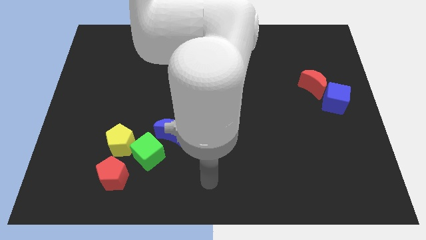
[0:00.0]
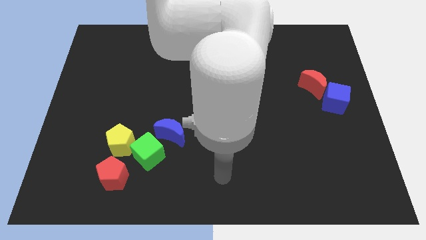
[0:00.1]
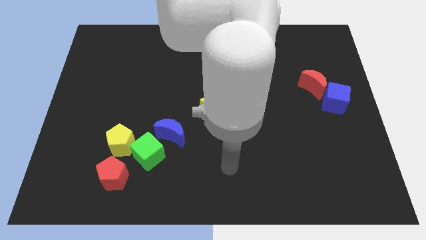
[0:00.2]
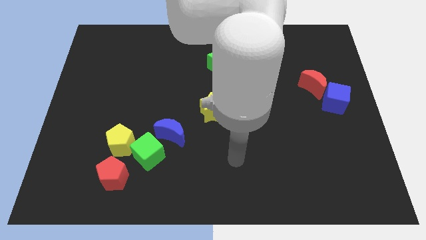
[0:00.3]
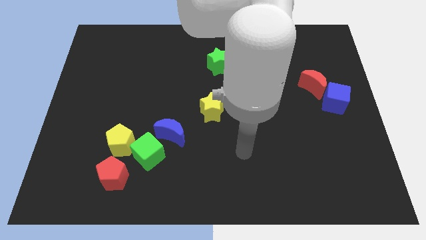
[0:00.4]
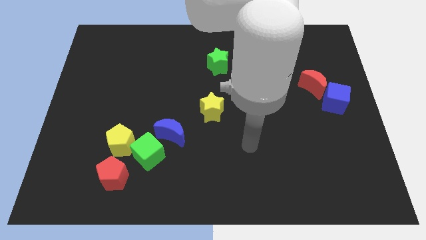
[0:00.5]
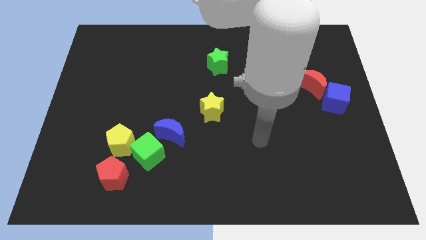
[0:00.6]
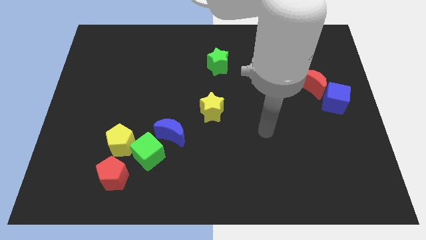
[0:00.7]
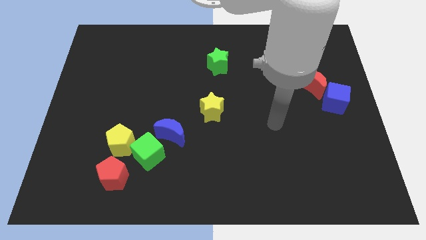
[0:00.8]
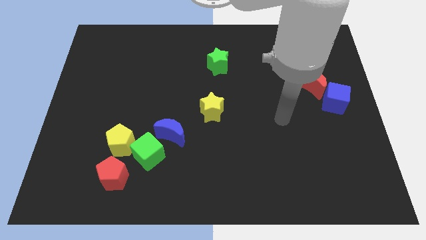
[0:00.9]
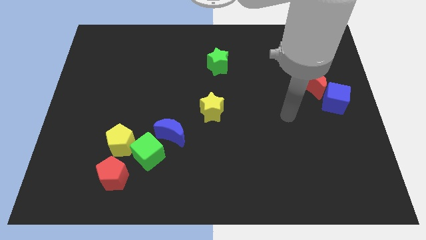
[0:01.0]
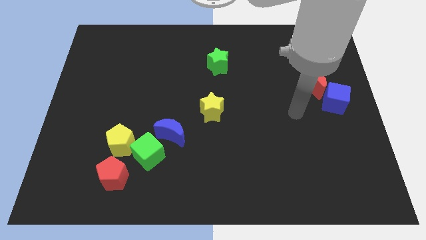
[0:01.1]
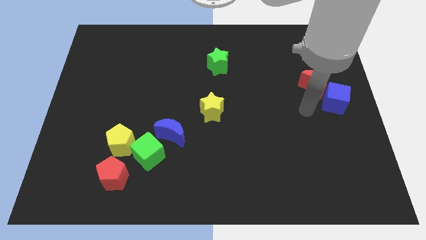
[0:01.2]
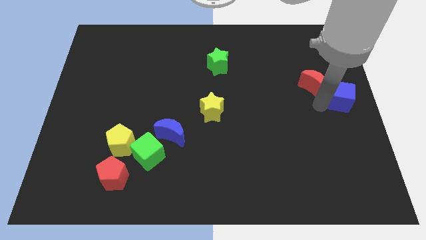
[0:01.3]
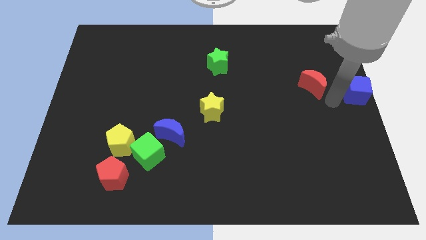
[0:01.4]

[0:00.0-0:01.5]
pull the red moon apart from the blue cube

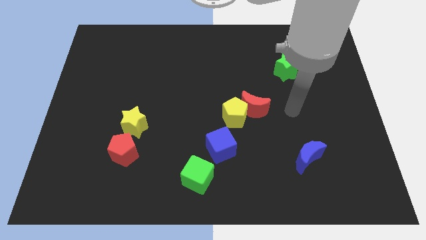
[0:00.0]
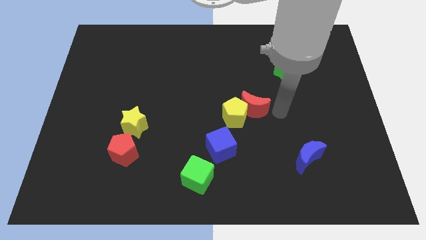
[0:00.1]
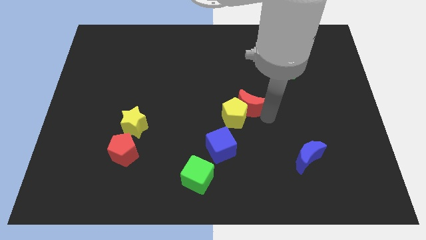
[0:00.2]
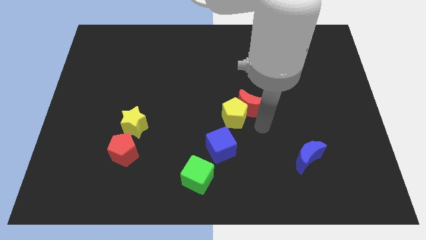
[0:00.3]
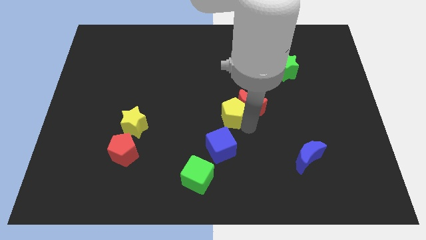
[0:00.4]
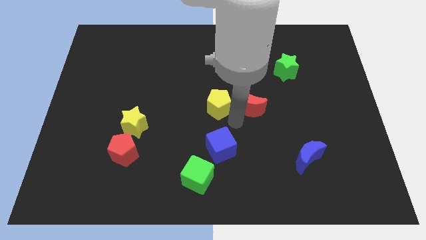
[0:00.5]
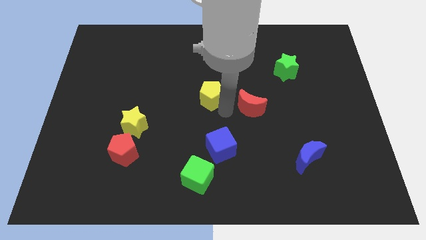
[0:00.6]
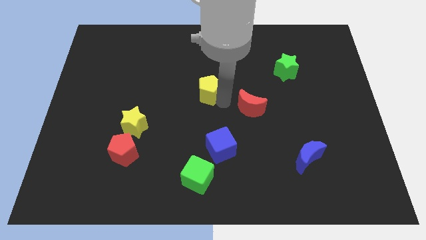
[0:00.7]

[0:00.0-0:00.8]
separate the red moon from the yellow pentagon

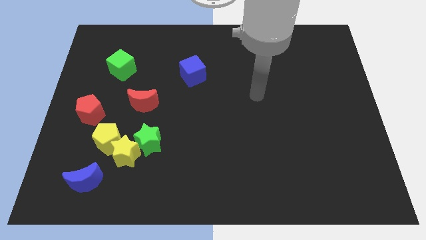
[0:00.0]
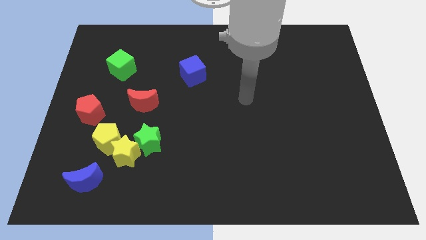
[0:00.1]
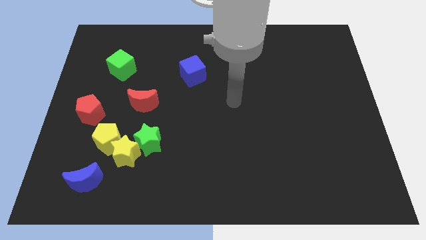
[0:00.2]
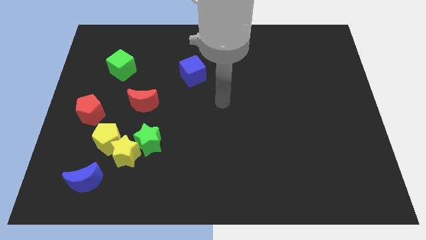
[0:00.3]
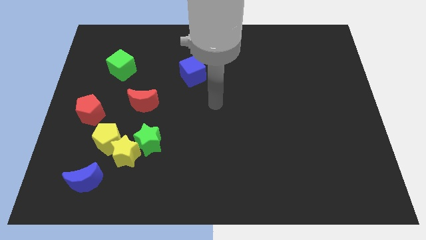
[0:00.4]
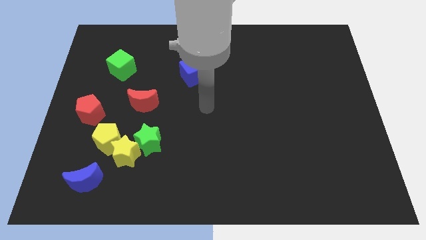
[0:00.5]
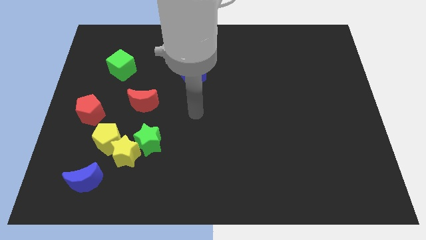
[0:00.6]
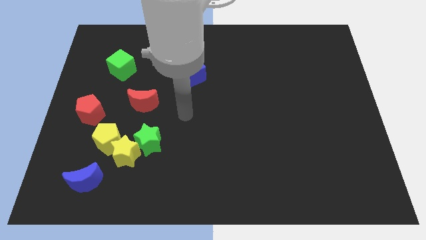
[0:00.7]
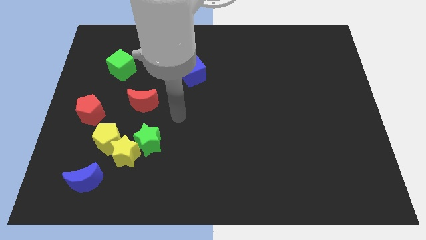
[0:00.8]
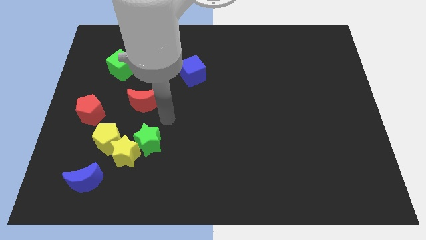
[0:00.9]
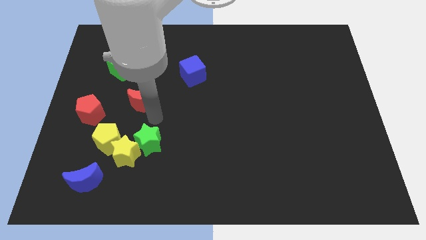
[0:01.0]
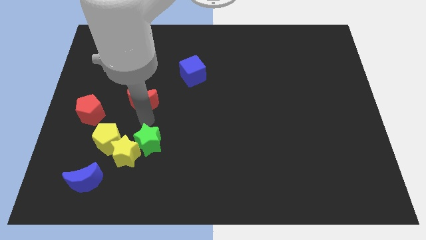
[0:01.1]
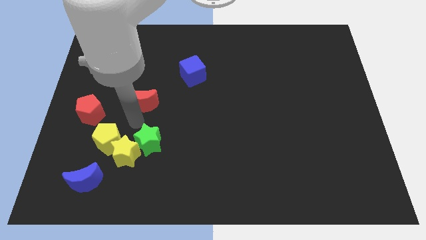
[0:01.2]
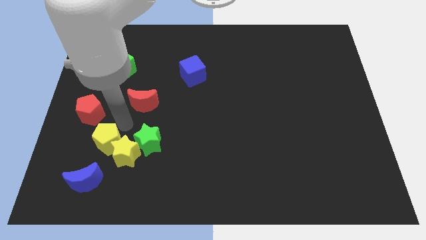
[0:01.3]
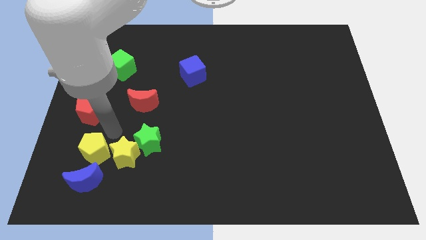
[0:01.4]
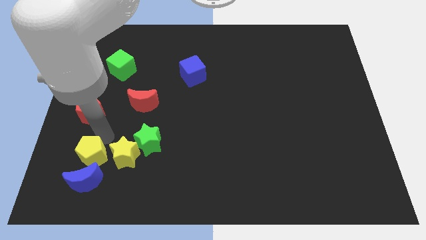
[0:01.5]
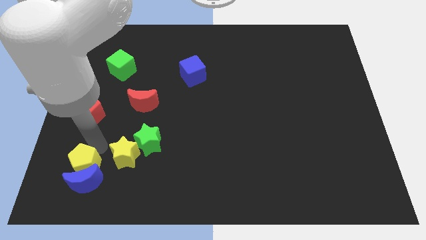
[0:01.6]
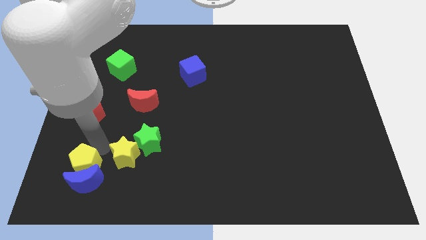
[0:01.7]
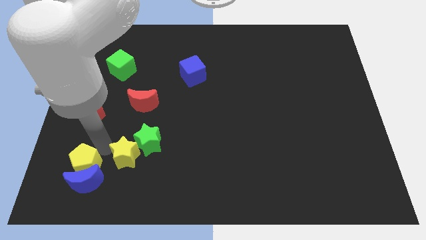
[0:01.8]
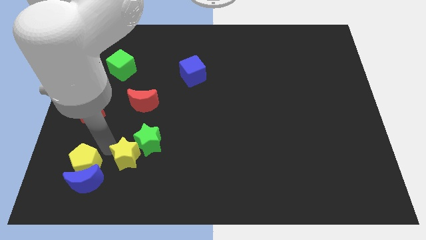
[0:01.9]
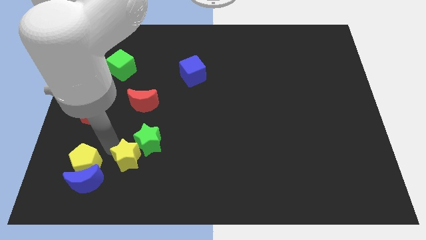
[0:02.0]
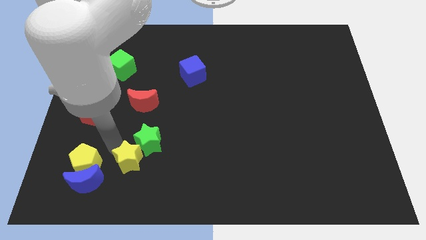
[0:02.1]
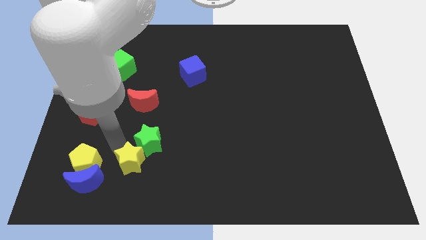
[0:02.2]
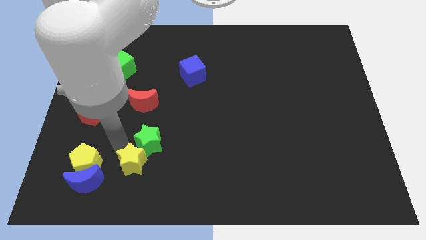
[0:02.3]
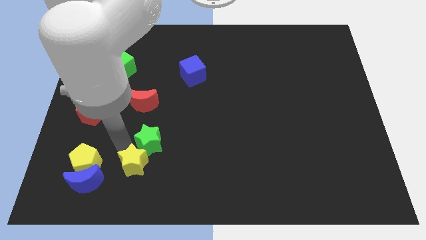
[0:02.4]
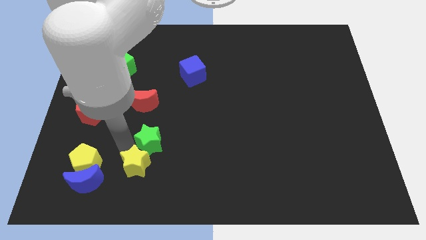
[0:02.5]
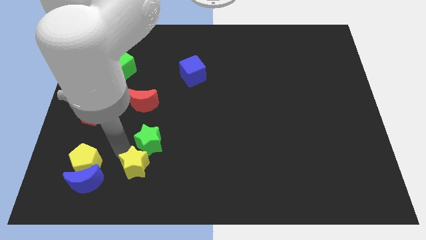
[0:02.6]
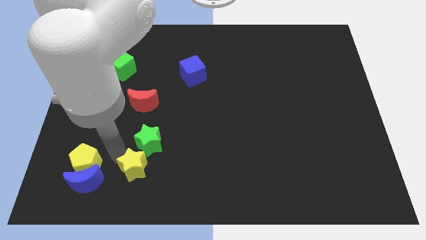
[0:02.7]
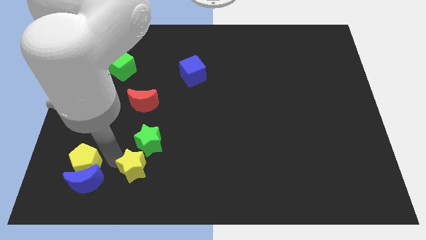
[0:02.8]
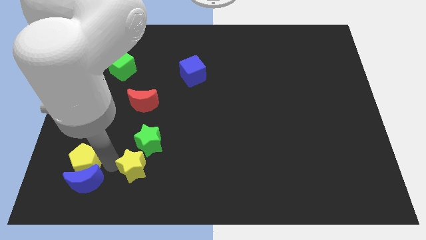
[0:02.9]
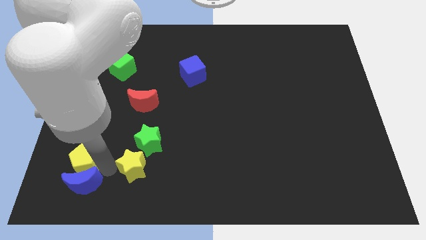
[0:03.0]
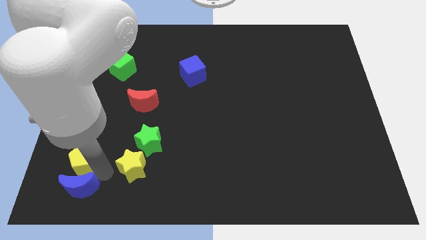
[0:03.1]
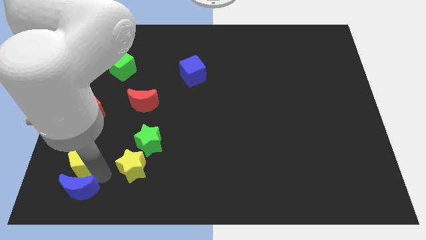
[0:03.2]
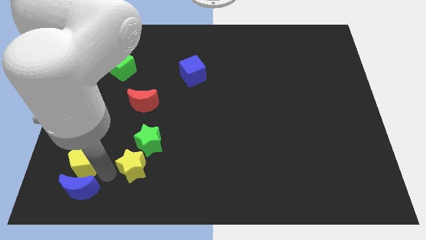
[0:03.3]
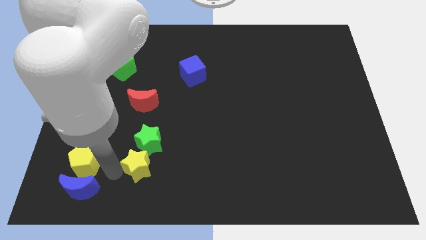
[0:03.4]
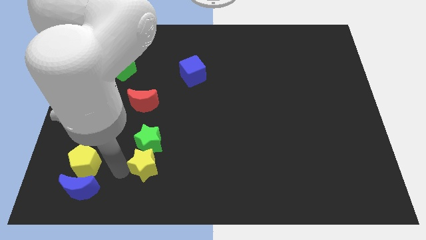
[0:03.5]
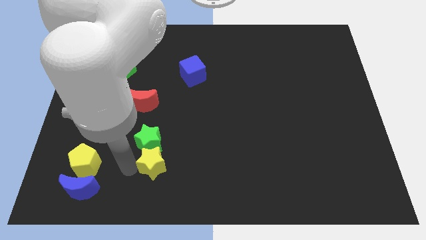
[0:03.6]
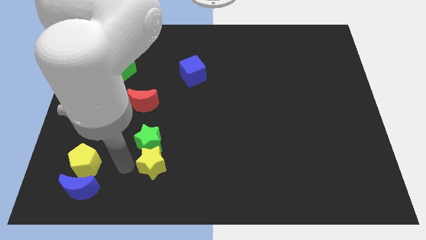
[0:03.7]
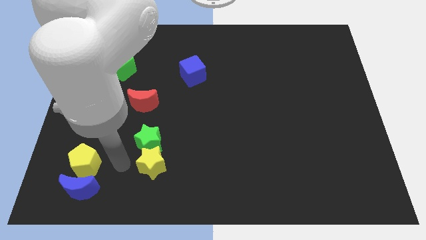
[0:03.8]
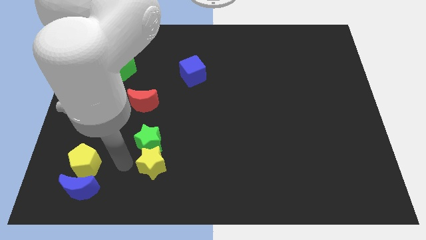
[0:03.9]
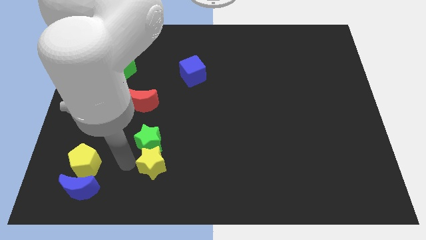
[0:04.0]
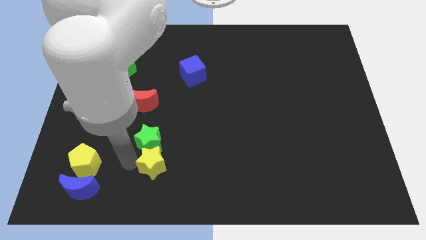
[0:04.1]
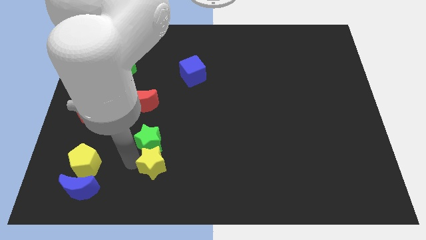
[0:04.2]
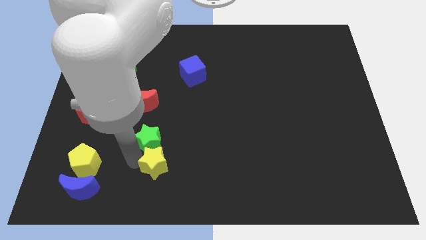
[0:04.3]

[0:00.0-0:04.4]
move the yellow star away from the yellow pentagon, green star, and blue moon

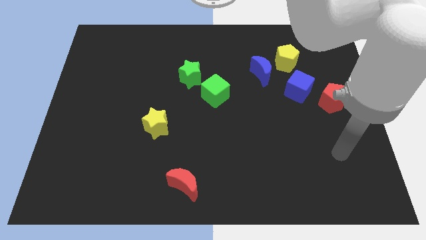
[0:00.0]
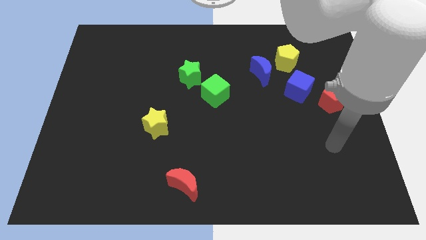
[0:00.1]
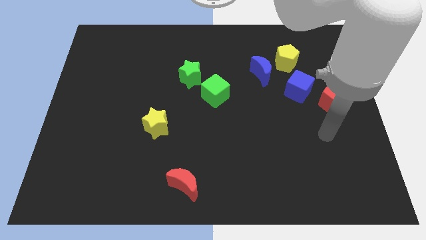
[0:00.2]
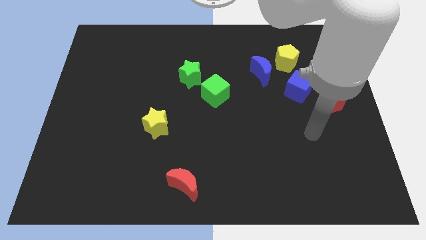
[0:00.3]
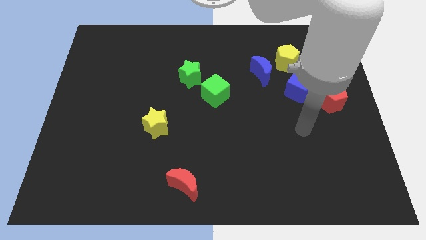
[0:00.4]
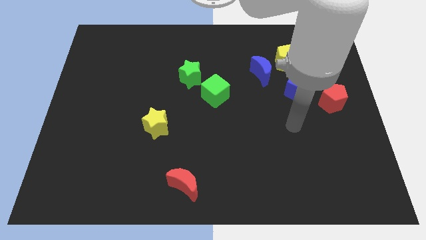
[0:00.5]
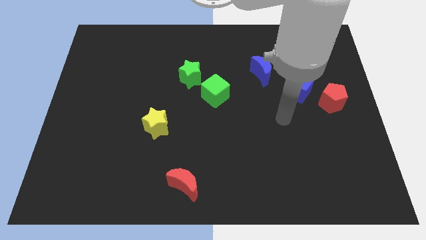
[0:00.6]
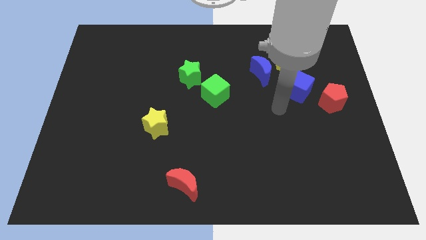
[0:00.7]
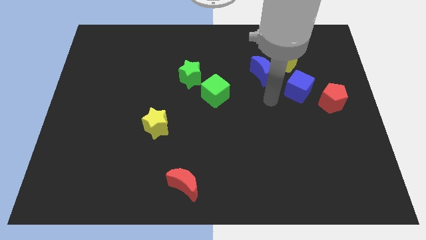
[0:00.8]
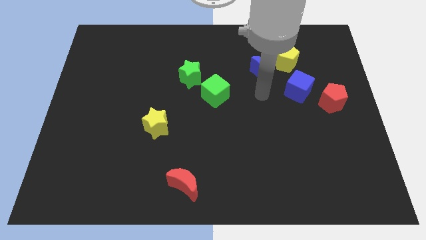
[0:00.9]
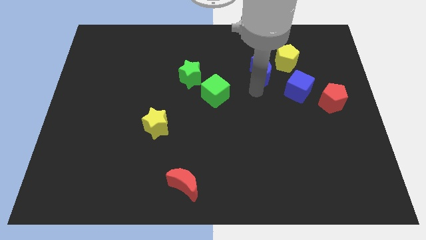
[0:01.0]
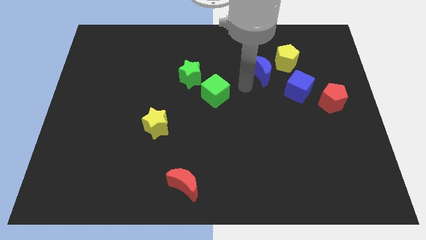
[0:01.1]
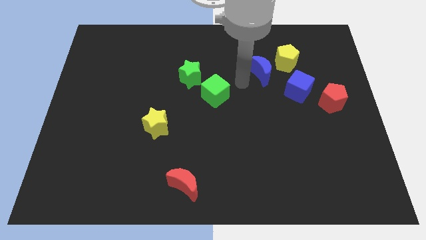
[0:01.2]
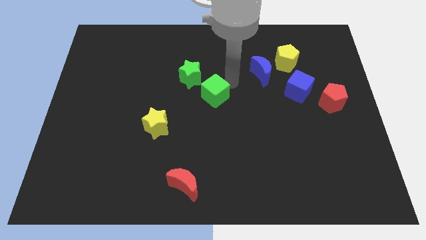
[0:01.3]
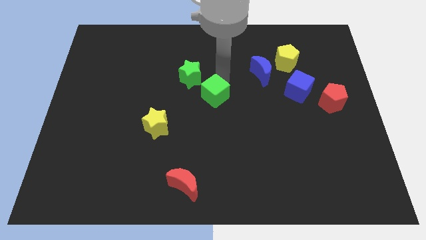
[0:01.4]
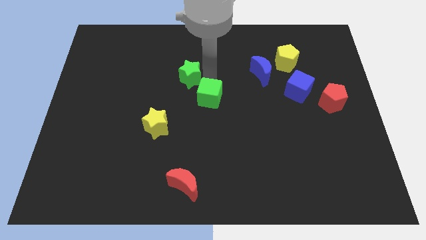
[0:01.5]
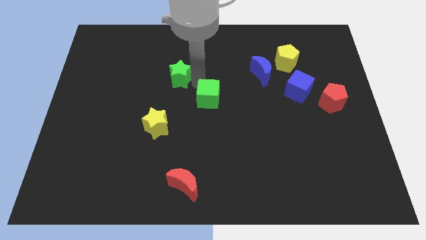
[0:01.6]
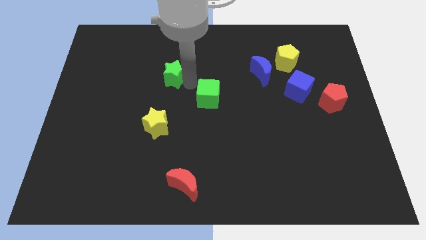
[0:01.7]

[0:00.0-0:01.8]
separate the green cube from the green star

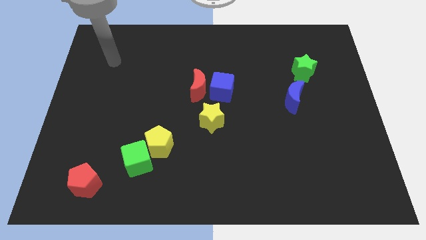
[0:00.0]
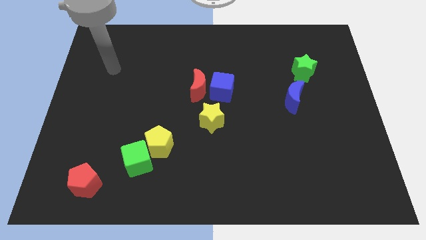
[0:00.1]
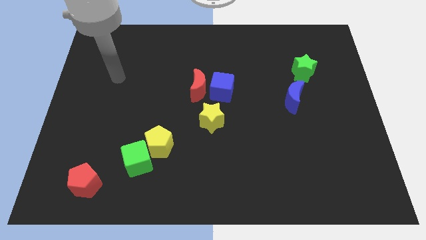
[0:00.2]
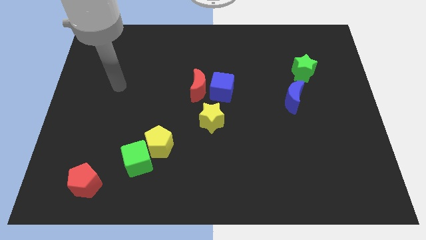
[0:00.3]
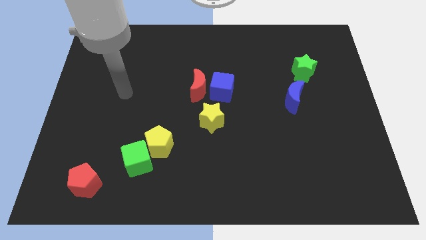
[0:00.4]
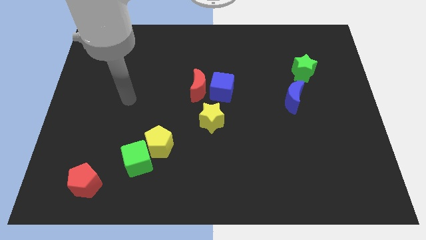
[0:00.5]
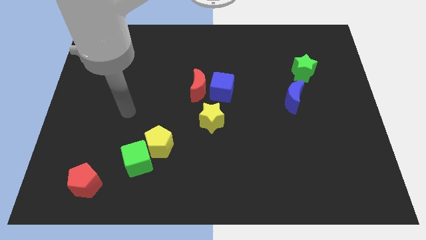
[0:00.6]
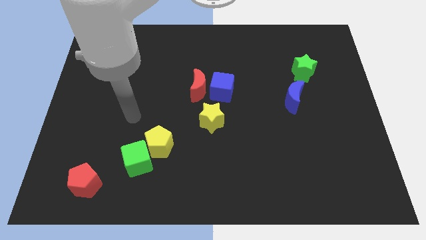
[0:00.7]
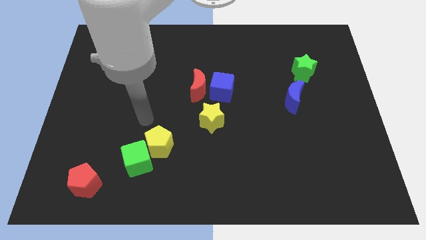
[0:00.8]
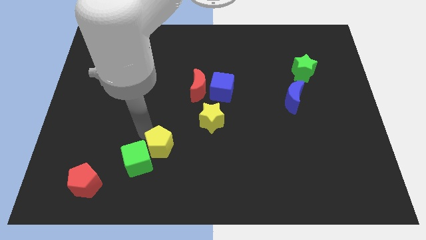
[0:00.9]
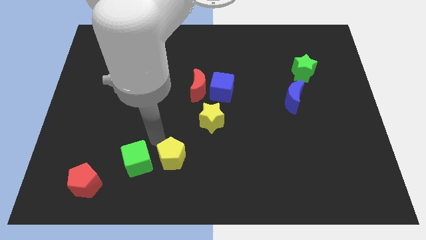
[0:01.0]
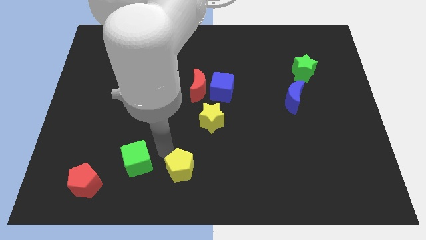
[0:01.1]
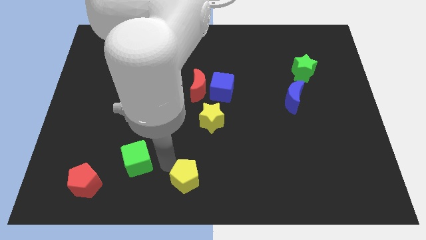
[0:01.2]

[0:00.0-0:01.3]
separate the green cube from the yellow pentagon
